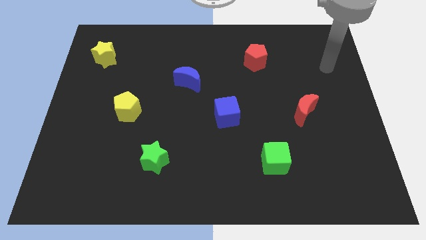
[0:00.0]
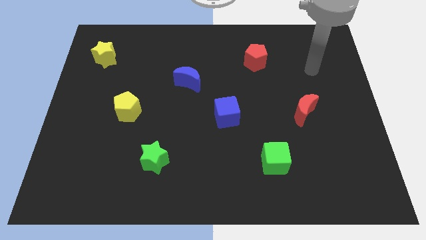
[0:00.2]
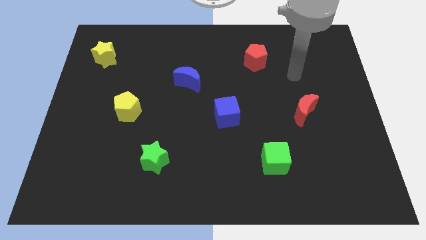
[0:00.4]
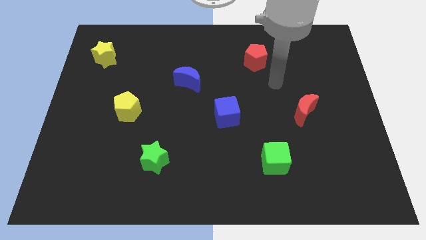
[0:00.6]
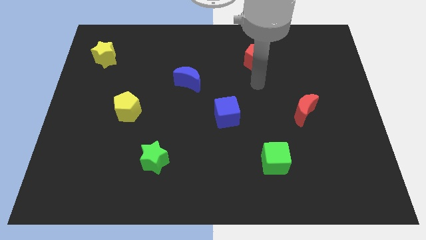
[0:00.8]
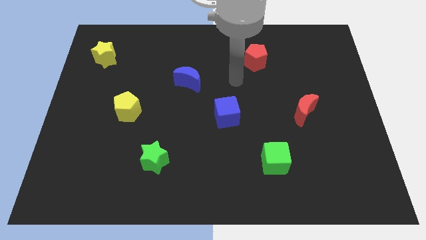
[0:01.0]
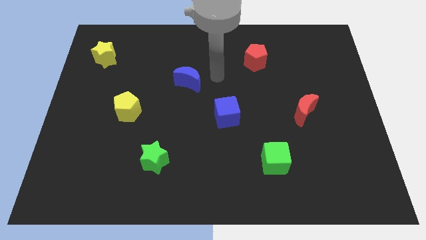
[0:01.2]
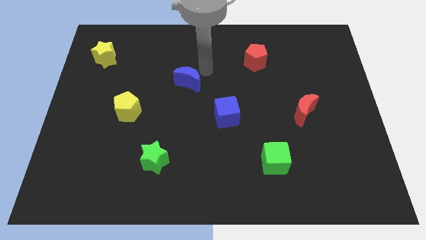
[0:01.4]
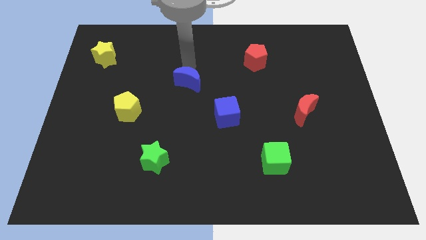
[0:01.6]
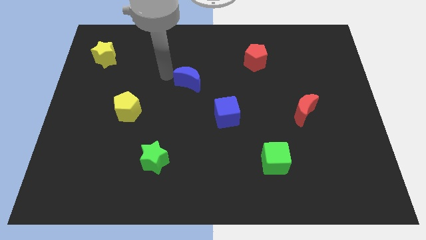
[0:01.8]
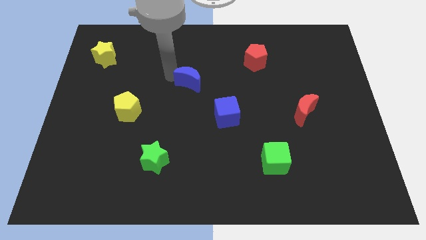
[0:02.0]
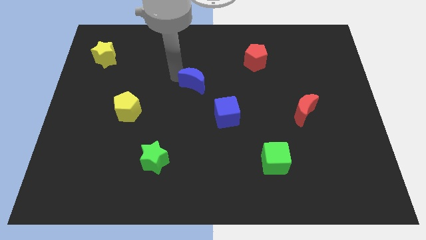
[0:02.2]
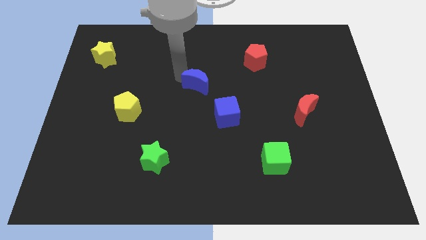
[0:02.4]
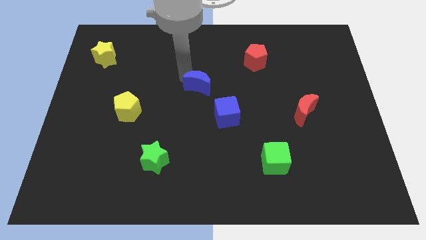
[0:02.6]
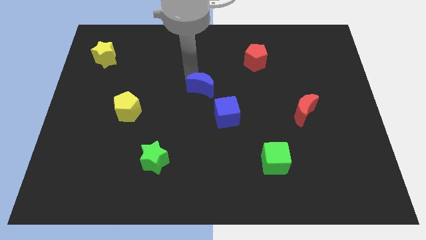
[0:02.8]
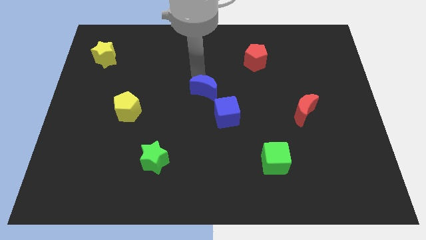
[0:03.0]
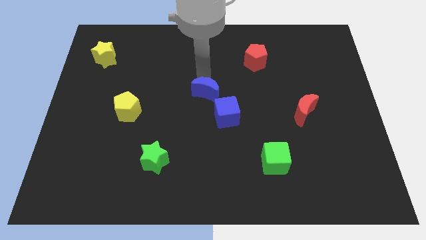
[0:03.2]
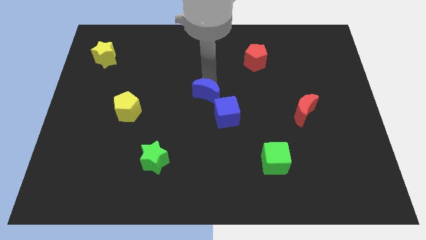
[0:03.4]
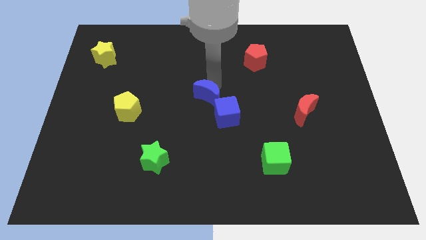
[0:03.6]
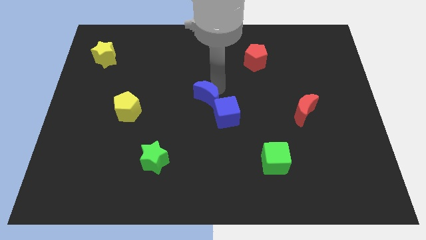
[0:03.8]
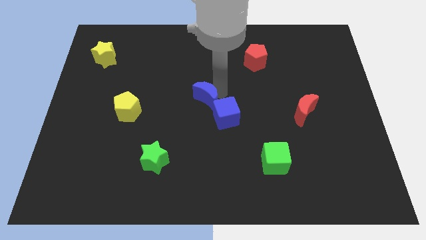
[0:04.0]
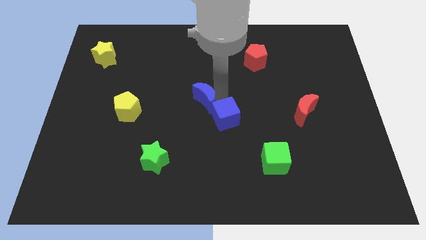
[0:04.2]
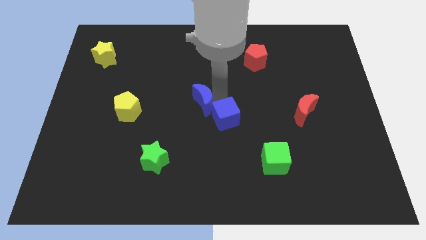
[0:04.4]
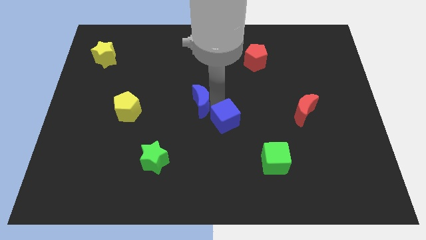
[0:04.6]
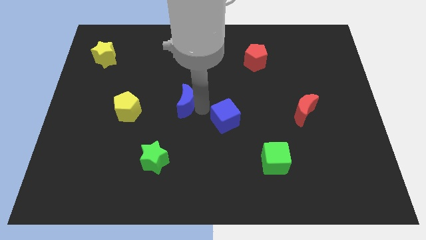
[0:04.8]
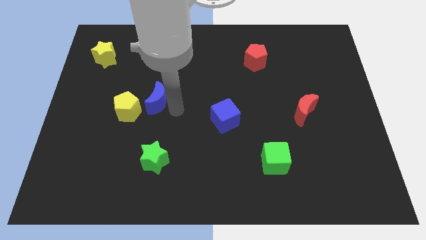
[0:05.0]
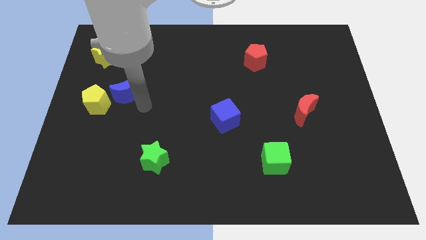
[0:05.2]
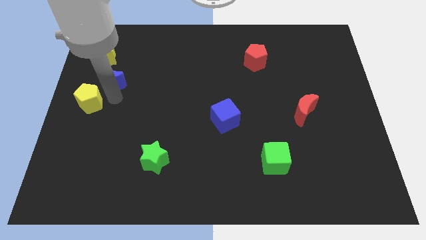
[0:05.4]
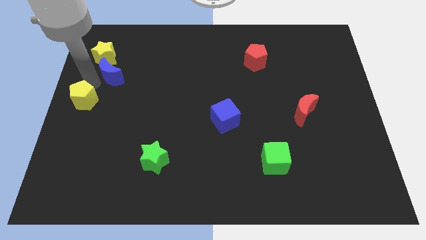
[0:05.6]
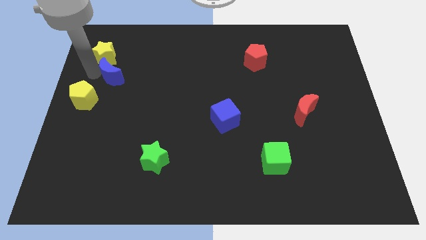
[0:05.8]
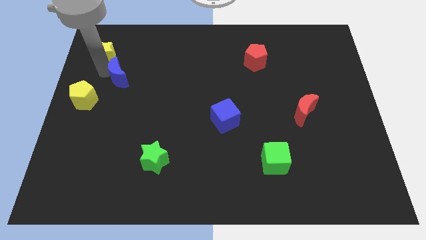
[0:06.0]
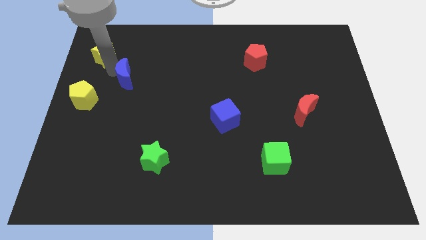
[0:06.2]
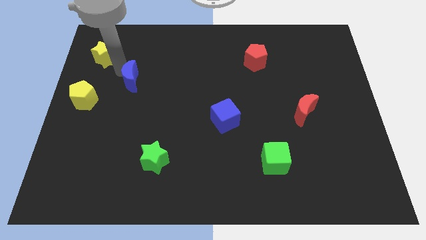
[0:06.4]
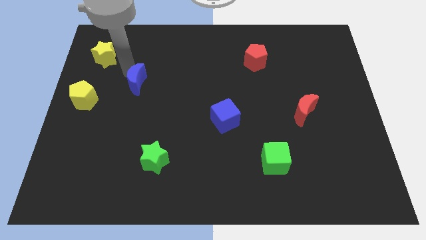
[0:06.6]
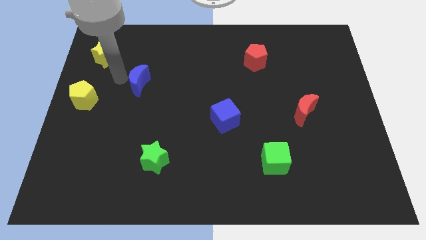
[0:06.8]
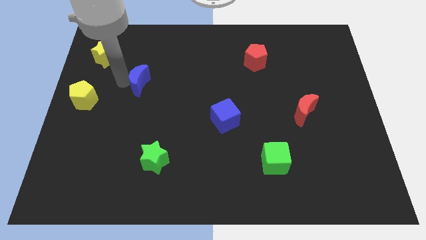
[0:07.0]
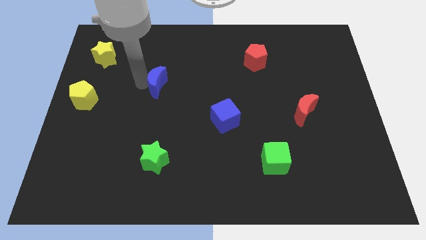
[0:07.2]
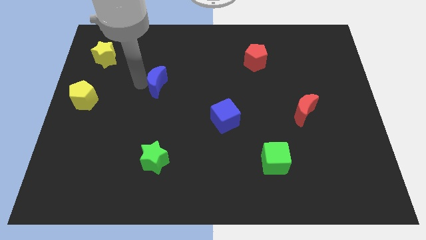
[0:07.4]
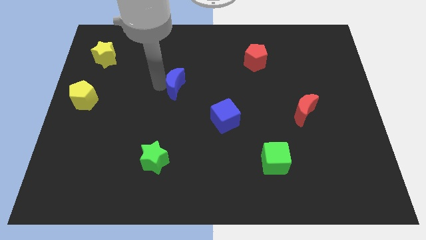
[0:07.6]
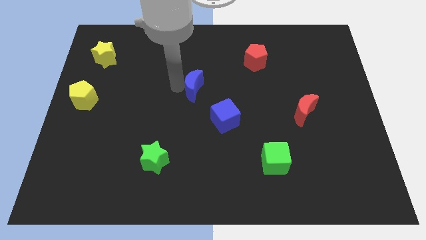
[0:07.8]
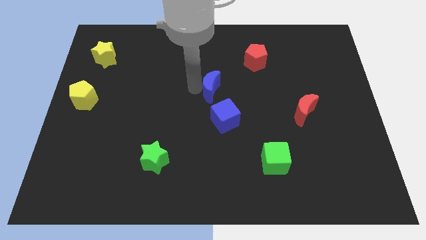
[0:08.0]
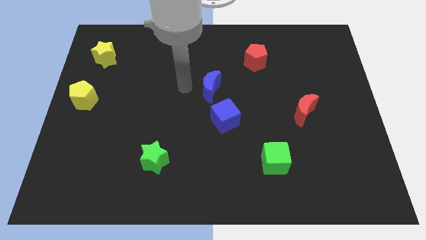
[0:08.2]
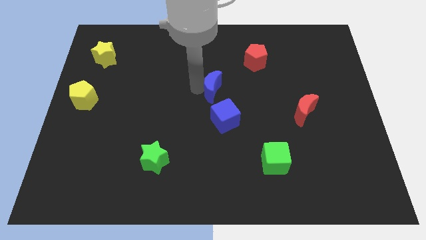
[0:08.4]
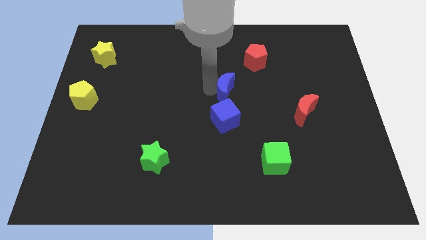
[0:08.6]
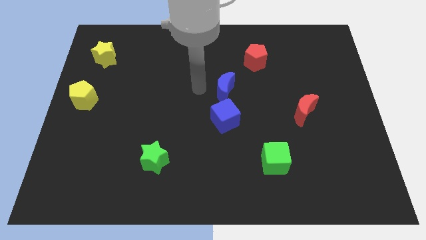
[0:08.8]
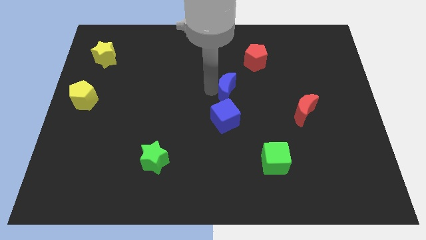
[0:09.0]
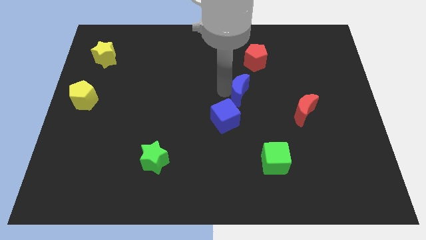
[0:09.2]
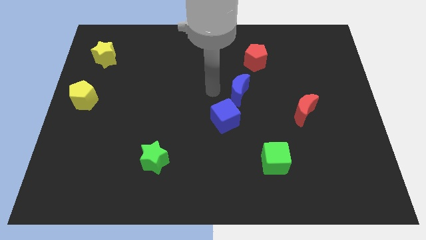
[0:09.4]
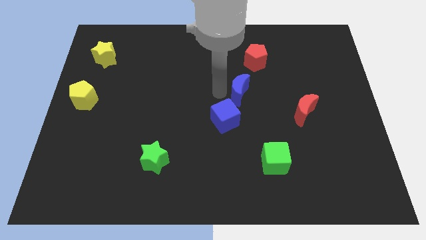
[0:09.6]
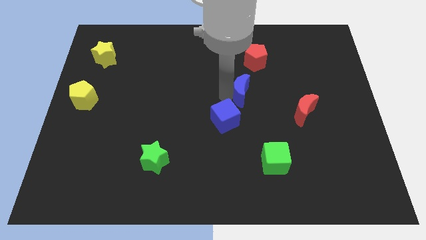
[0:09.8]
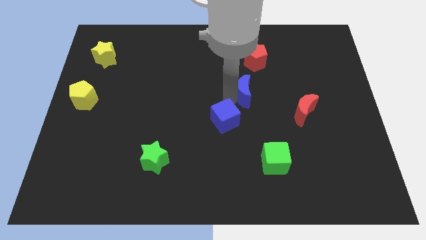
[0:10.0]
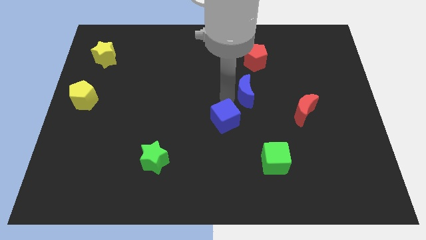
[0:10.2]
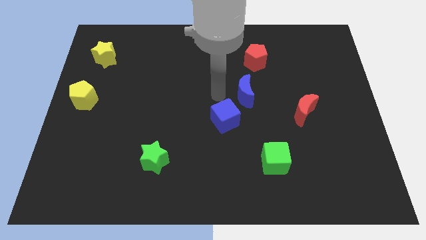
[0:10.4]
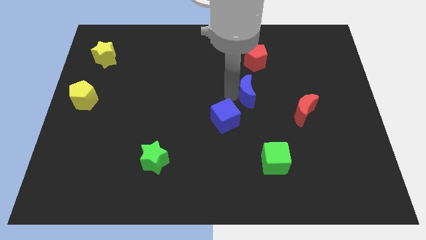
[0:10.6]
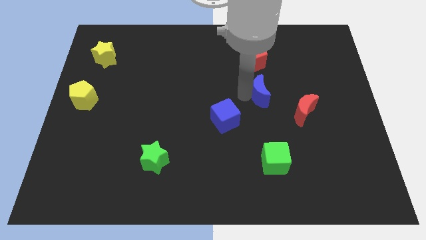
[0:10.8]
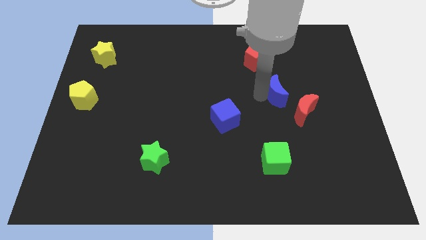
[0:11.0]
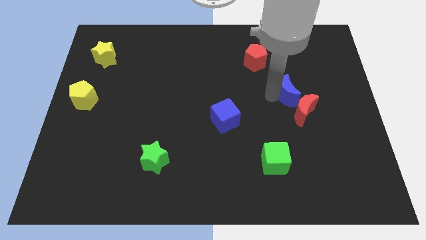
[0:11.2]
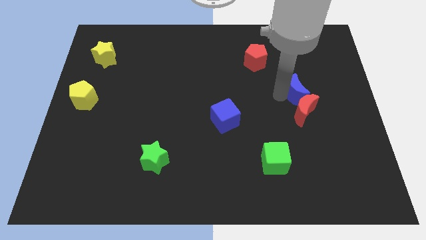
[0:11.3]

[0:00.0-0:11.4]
move the blue moon diagonally up and to the right of the red moon

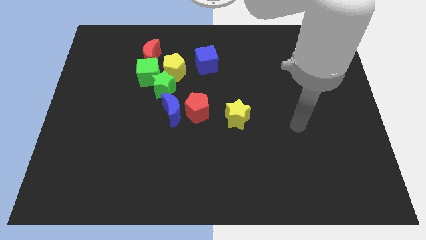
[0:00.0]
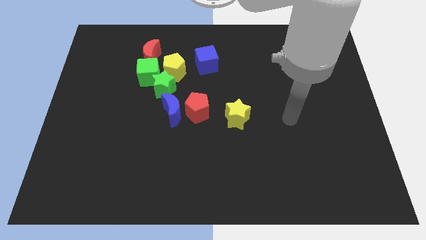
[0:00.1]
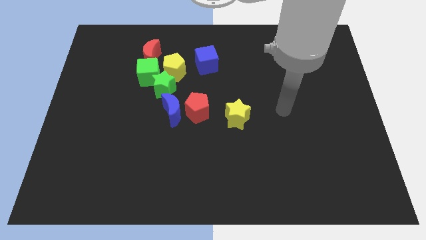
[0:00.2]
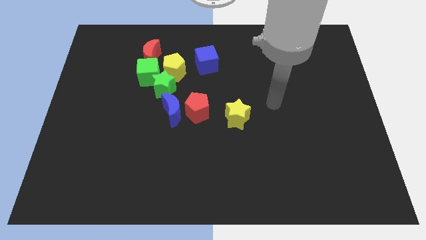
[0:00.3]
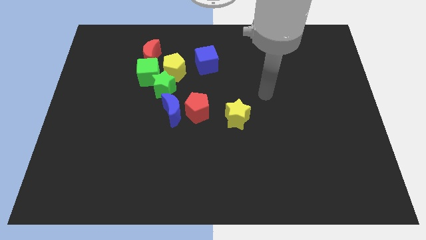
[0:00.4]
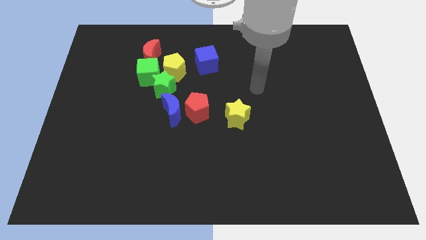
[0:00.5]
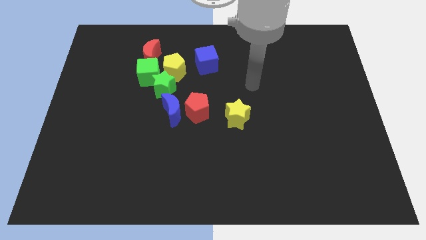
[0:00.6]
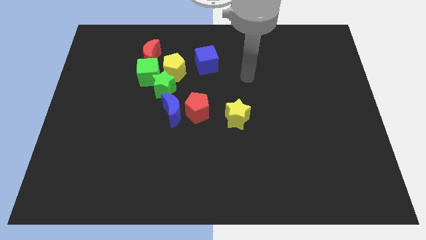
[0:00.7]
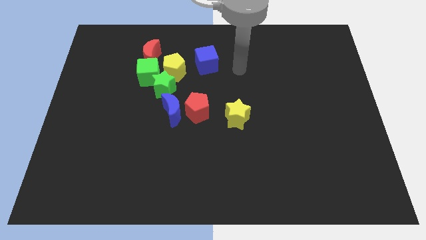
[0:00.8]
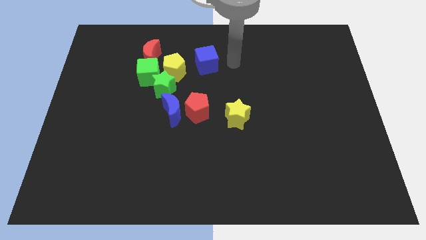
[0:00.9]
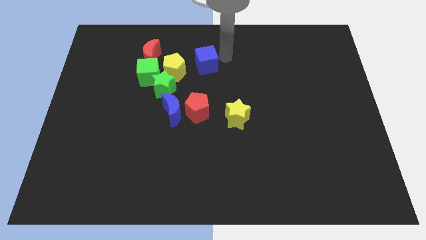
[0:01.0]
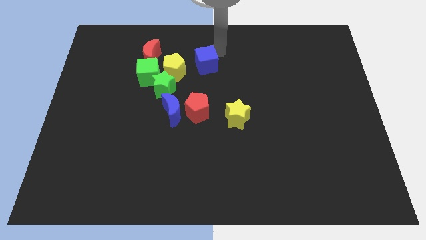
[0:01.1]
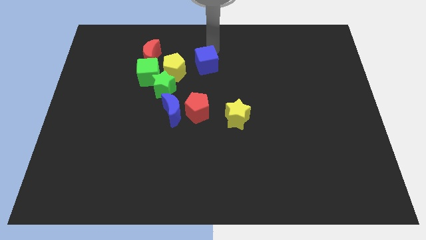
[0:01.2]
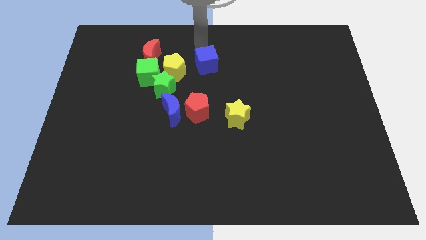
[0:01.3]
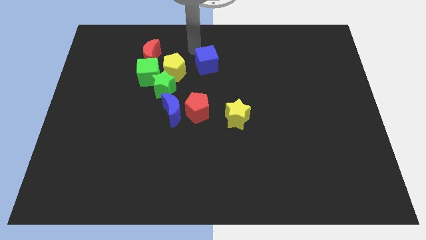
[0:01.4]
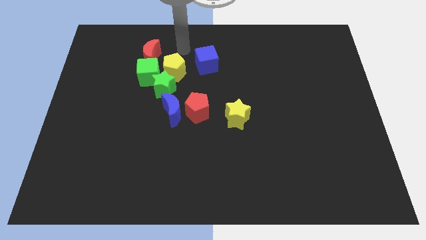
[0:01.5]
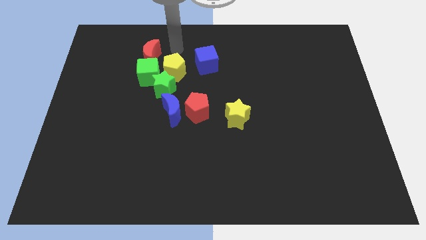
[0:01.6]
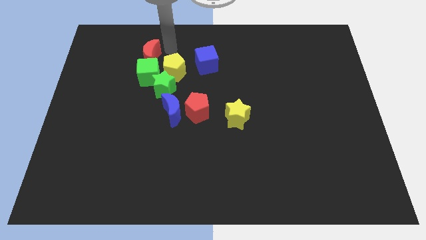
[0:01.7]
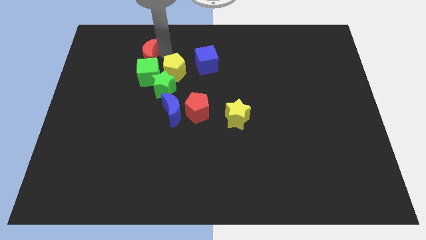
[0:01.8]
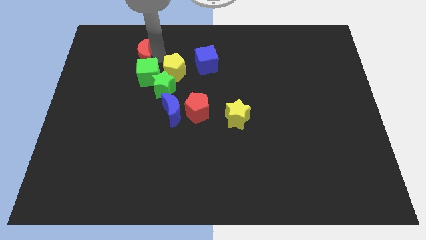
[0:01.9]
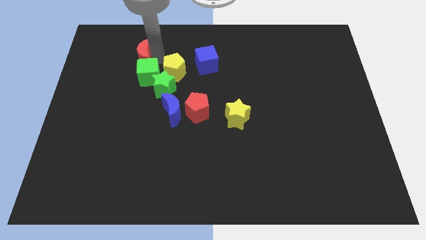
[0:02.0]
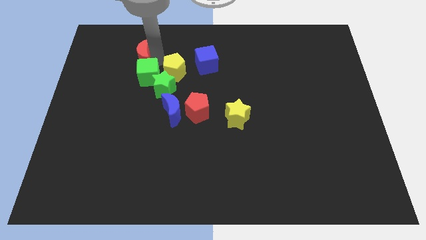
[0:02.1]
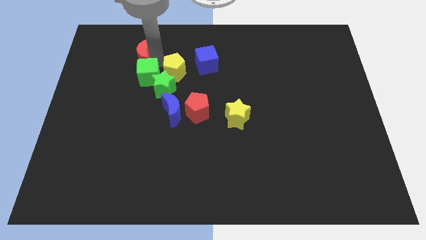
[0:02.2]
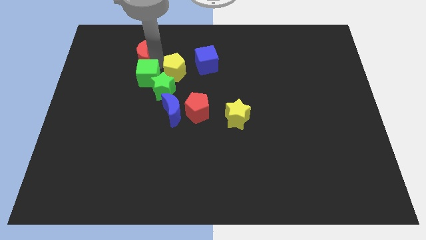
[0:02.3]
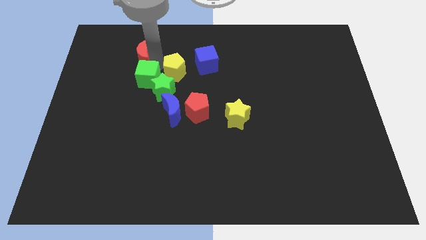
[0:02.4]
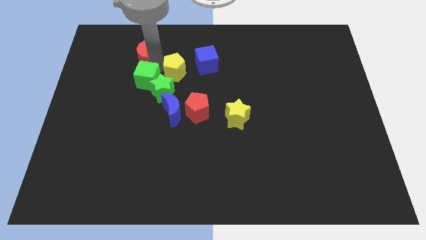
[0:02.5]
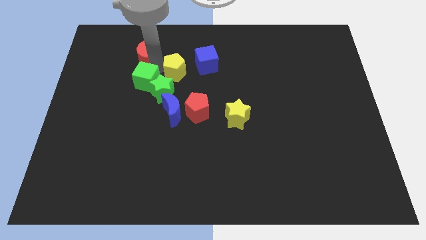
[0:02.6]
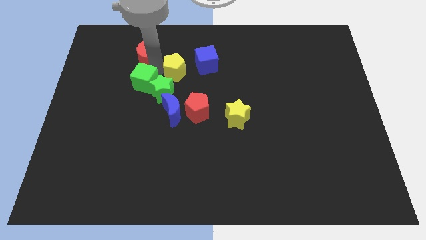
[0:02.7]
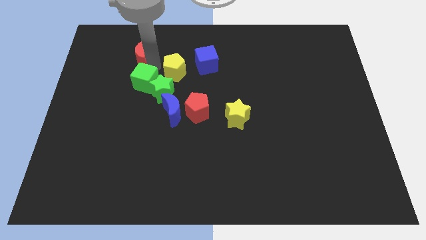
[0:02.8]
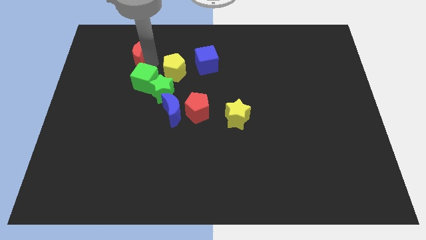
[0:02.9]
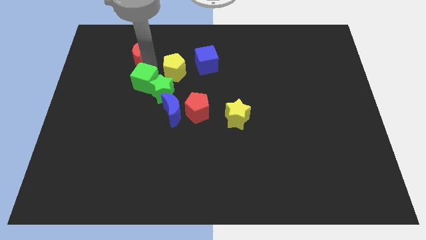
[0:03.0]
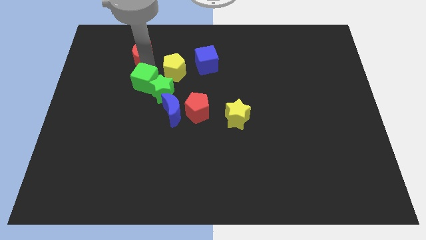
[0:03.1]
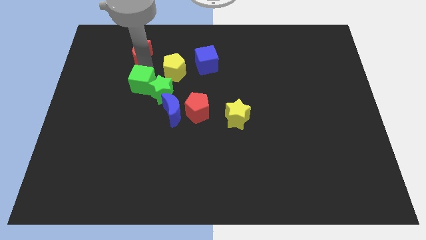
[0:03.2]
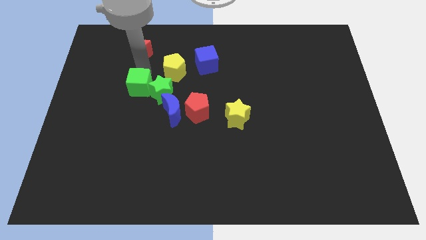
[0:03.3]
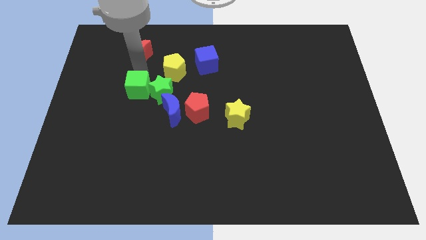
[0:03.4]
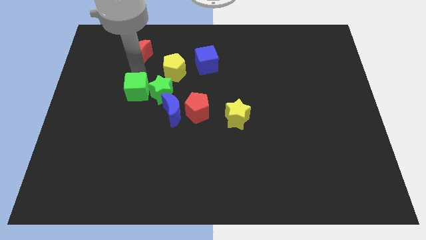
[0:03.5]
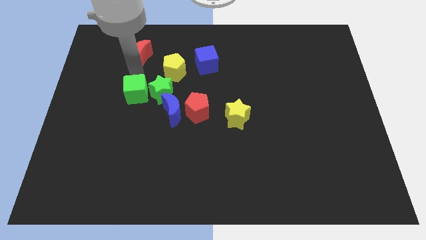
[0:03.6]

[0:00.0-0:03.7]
slide the green cube to the bottom left side of the green star
